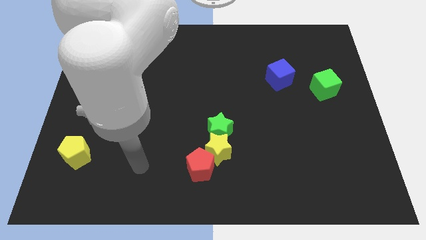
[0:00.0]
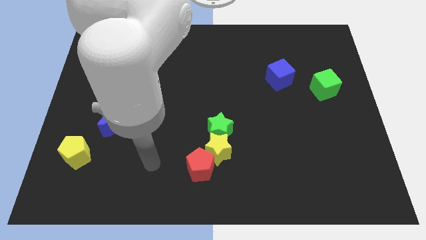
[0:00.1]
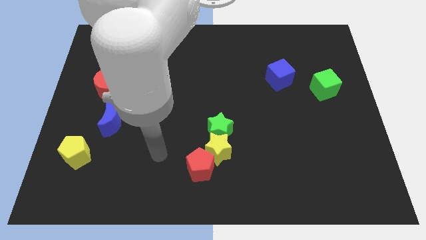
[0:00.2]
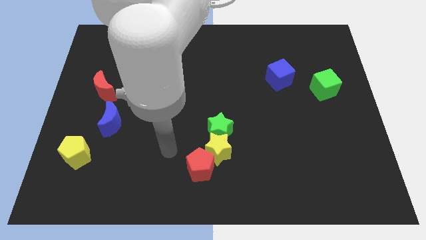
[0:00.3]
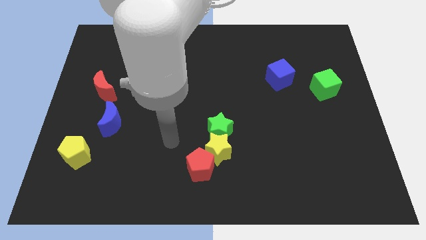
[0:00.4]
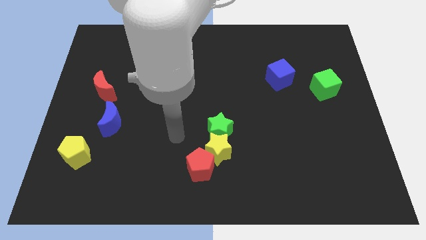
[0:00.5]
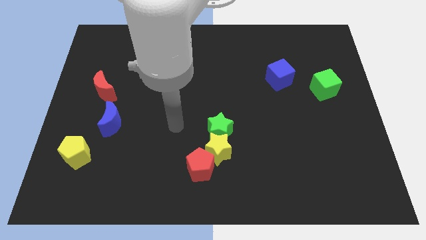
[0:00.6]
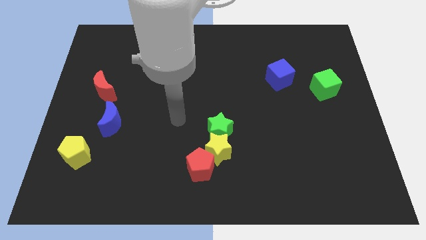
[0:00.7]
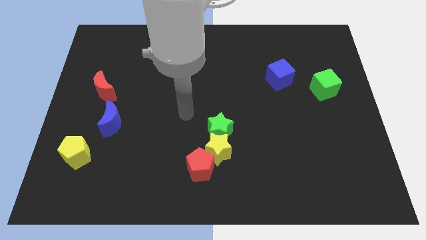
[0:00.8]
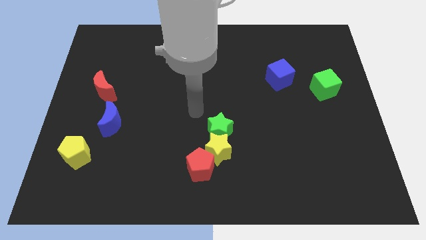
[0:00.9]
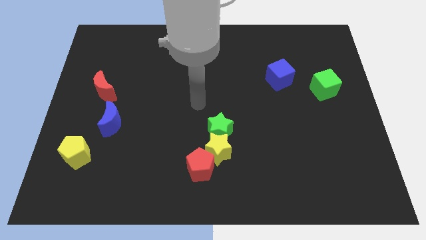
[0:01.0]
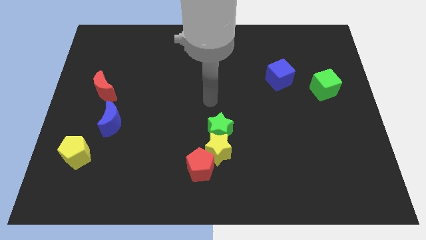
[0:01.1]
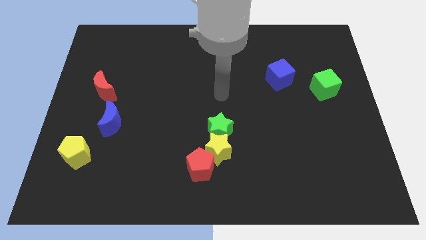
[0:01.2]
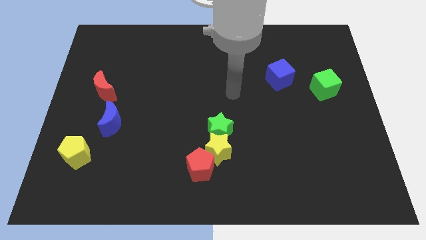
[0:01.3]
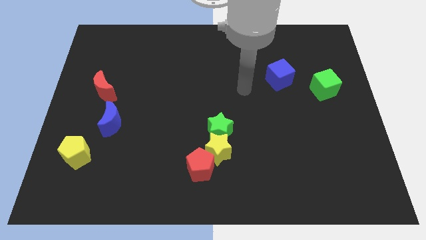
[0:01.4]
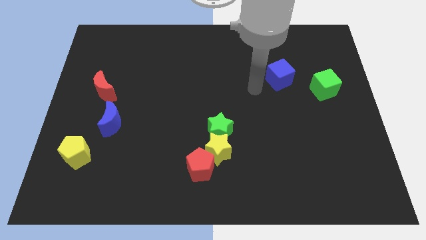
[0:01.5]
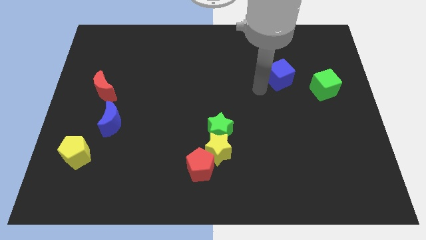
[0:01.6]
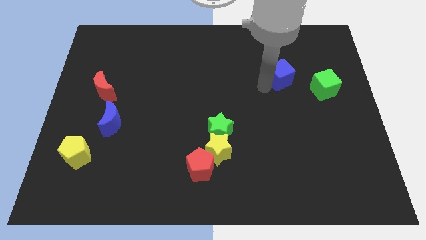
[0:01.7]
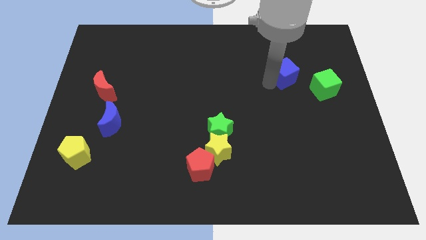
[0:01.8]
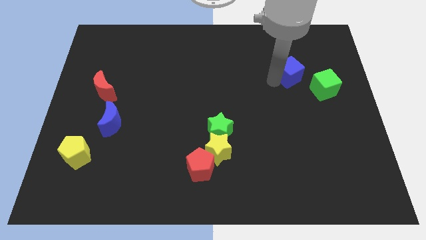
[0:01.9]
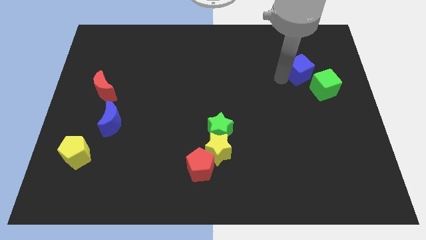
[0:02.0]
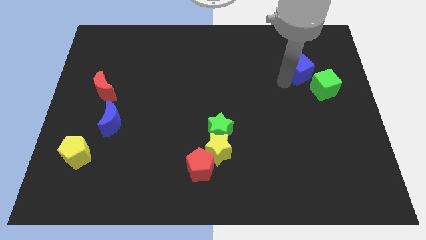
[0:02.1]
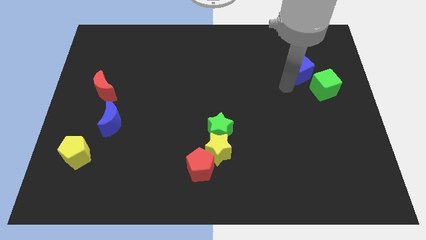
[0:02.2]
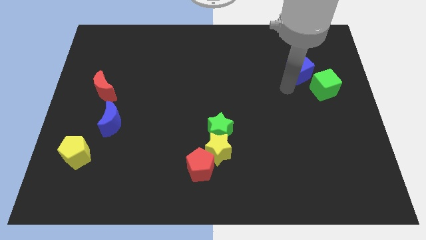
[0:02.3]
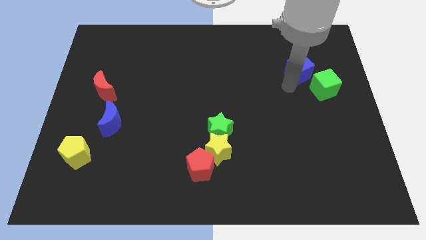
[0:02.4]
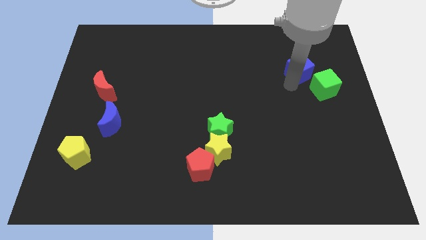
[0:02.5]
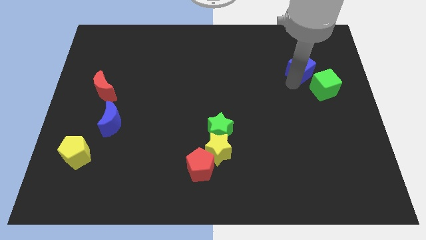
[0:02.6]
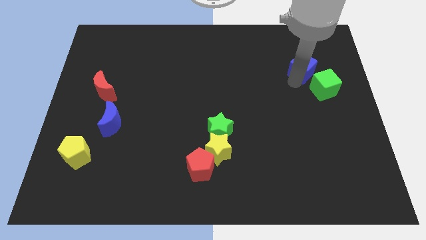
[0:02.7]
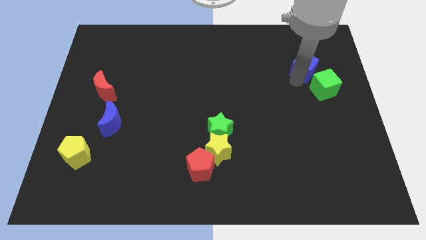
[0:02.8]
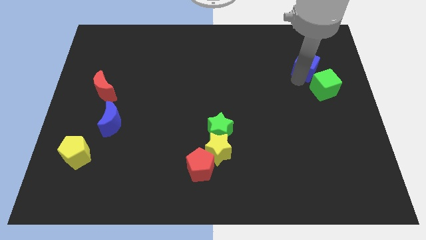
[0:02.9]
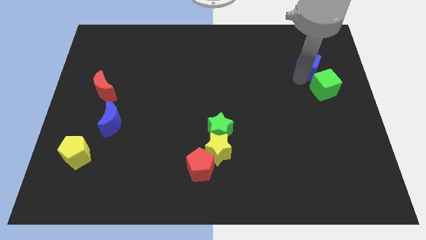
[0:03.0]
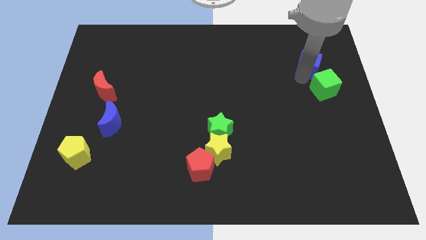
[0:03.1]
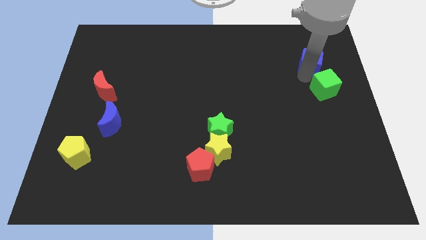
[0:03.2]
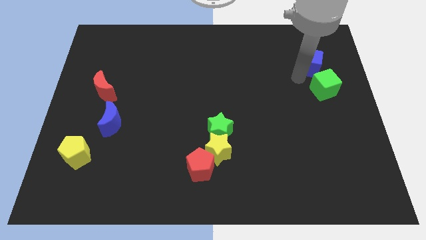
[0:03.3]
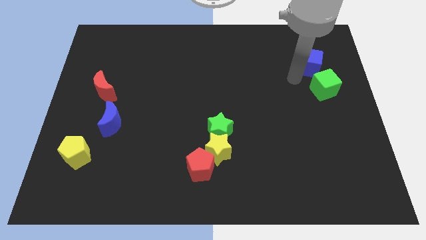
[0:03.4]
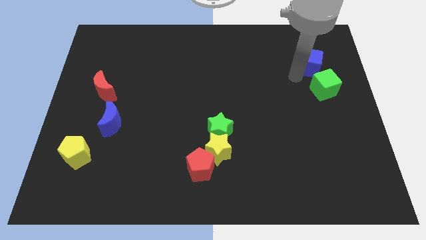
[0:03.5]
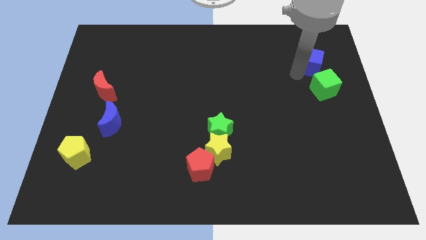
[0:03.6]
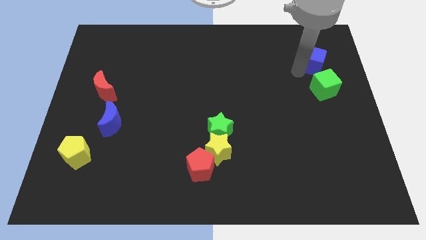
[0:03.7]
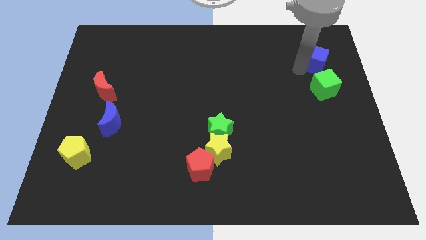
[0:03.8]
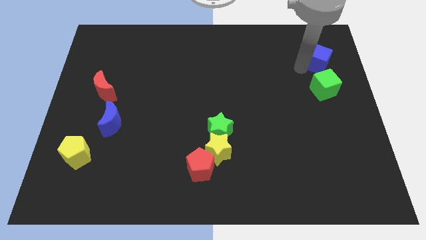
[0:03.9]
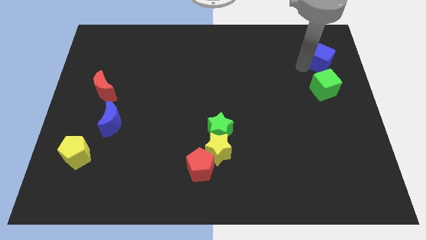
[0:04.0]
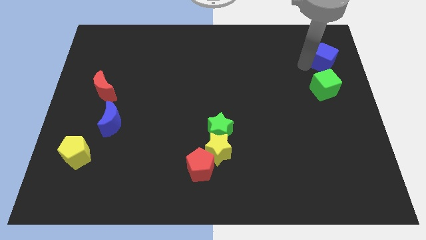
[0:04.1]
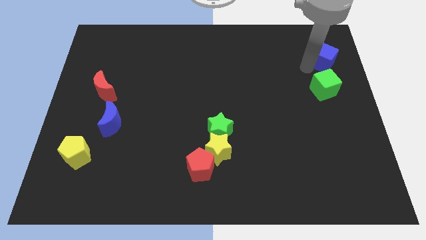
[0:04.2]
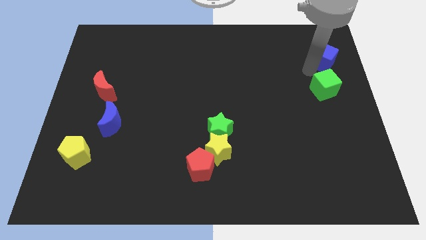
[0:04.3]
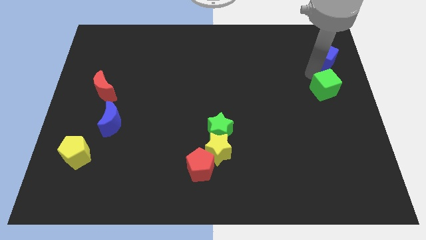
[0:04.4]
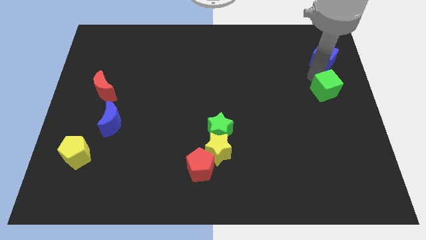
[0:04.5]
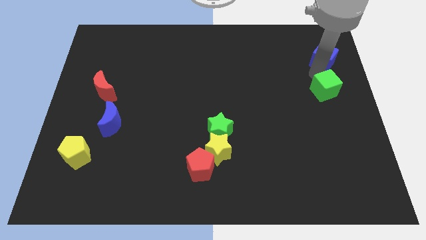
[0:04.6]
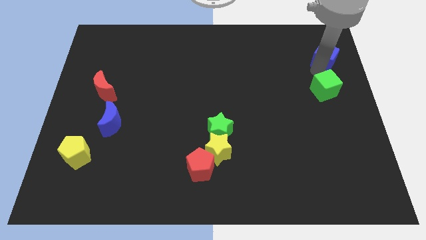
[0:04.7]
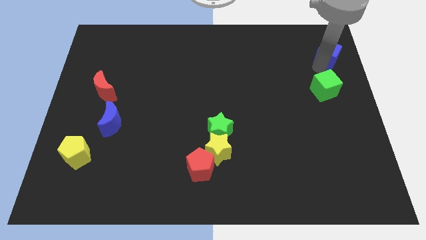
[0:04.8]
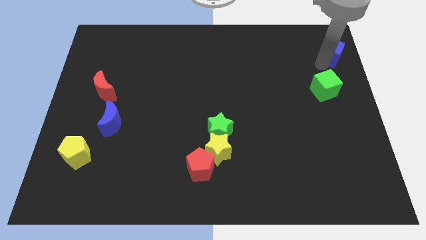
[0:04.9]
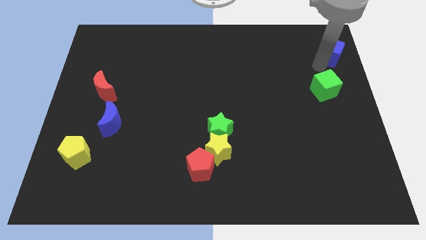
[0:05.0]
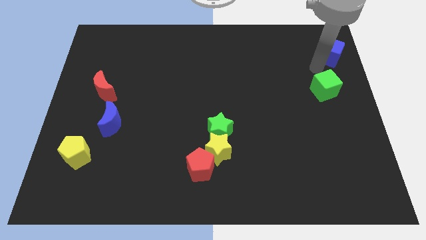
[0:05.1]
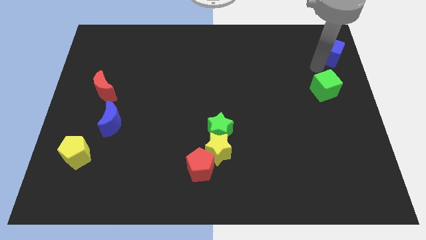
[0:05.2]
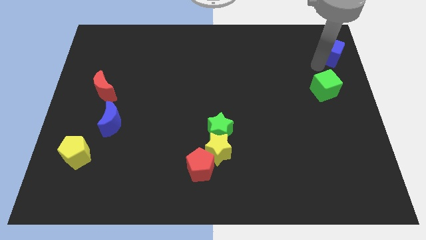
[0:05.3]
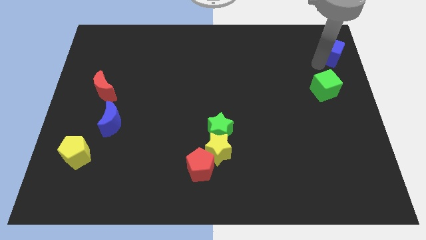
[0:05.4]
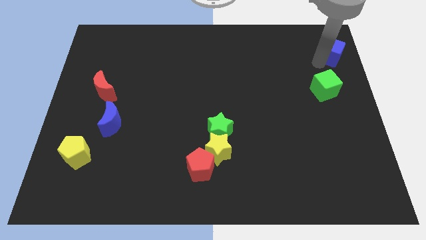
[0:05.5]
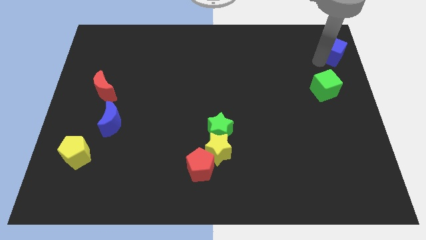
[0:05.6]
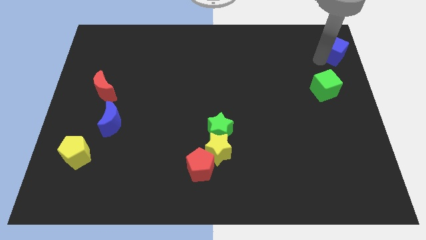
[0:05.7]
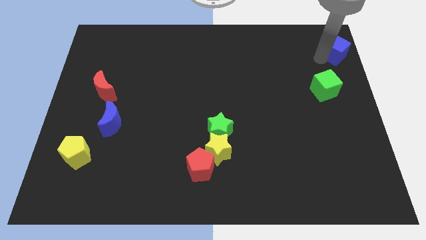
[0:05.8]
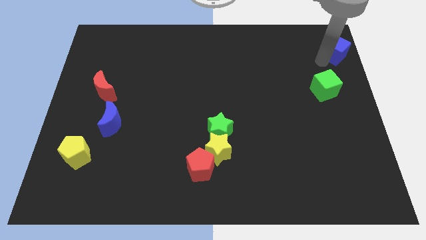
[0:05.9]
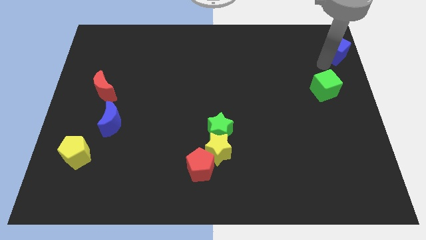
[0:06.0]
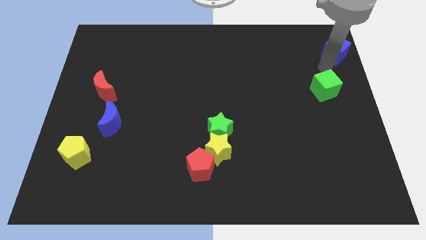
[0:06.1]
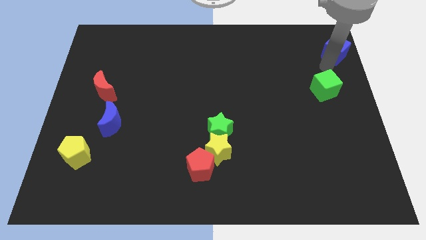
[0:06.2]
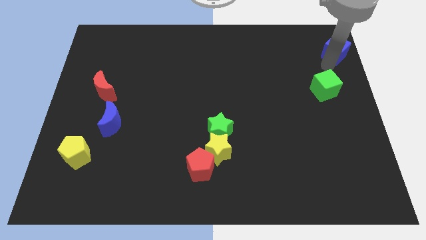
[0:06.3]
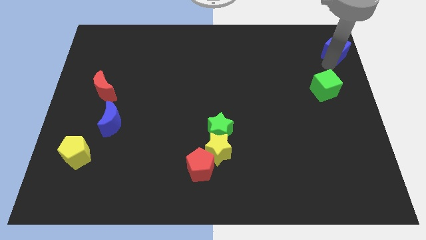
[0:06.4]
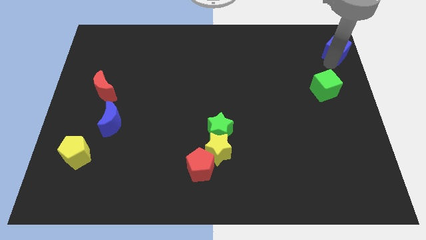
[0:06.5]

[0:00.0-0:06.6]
slide the blue cube to the top right
